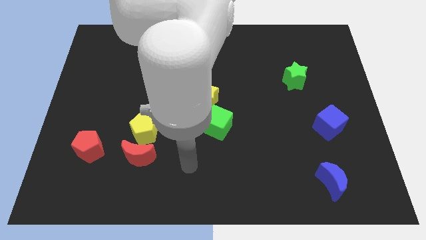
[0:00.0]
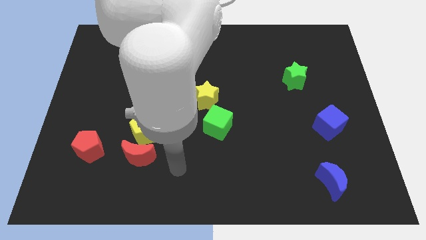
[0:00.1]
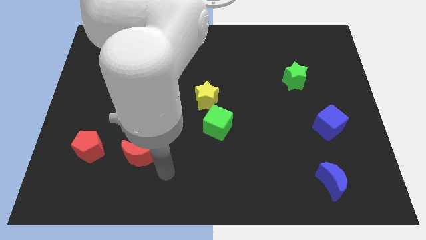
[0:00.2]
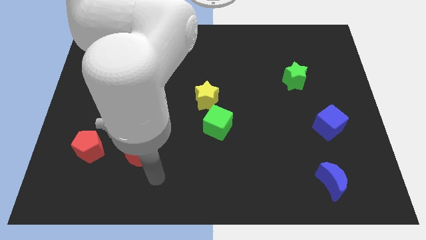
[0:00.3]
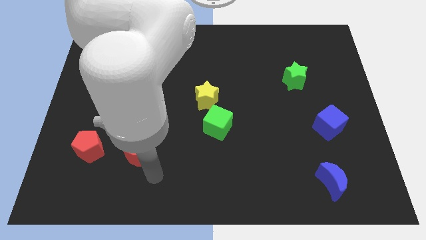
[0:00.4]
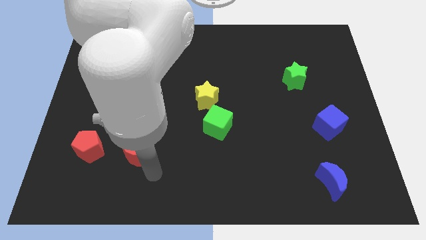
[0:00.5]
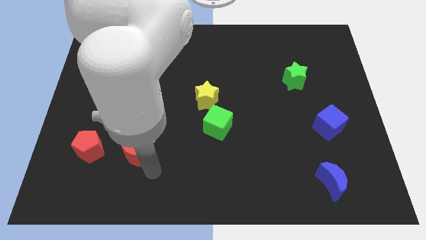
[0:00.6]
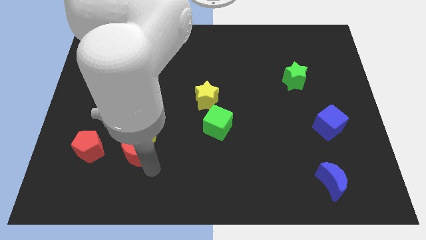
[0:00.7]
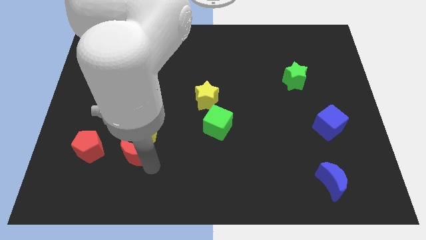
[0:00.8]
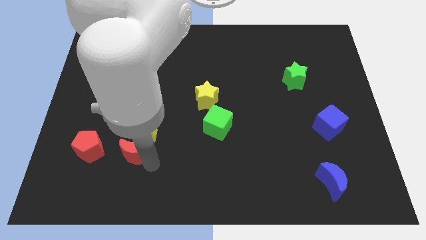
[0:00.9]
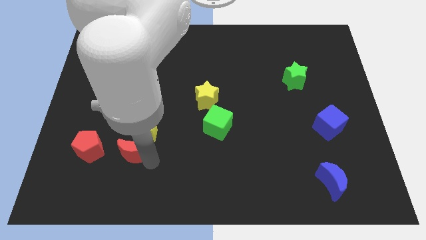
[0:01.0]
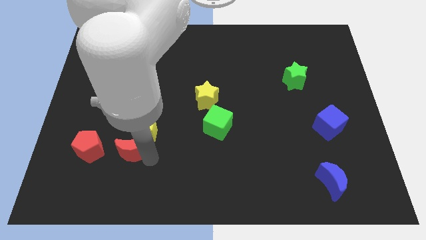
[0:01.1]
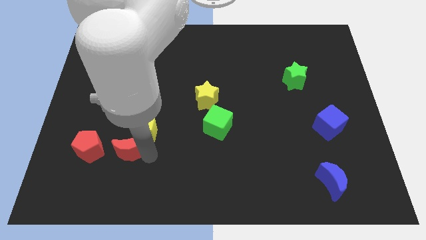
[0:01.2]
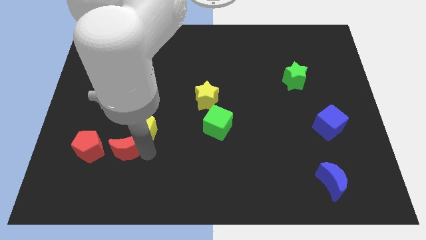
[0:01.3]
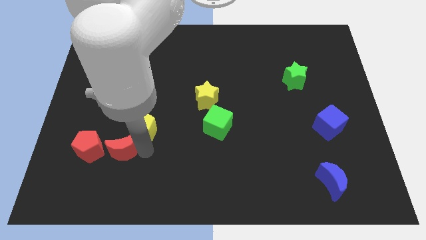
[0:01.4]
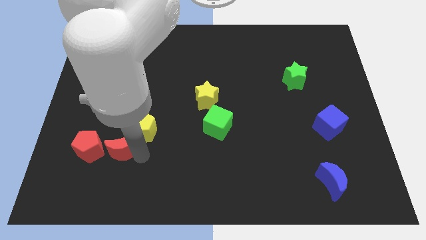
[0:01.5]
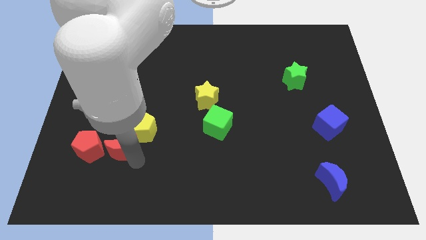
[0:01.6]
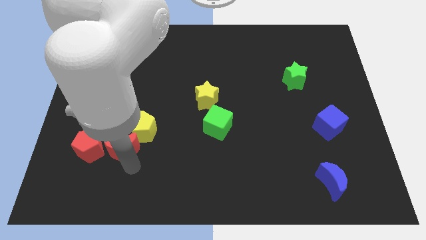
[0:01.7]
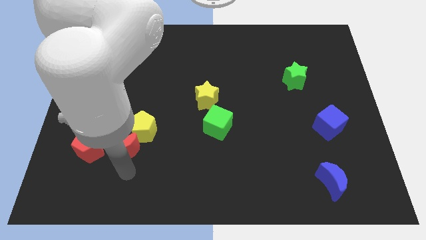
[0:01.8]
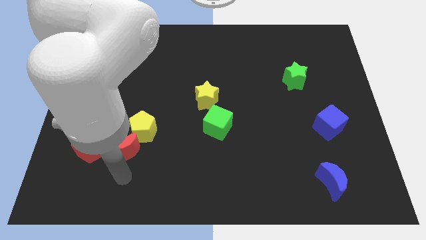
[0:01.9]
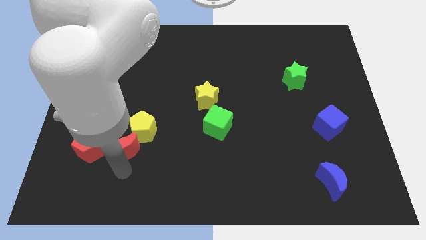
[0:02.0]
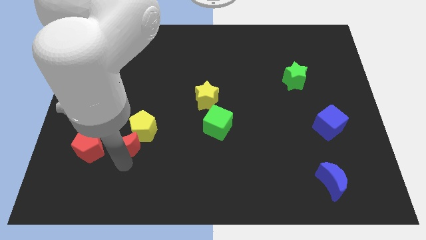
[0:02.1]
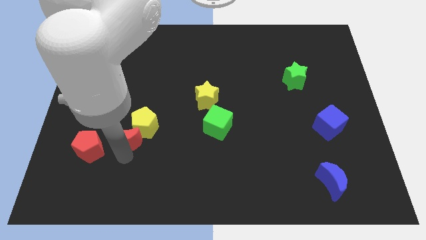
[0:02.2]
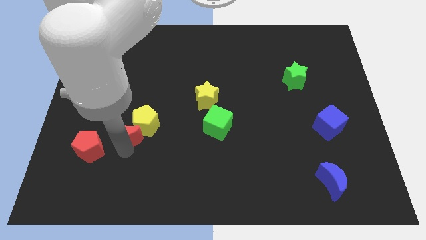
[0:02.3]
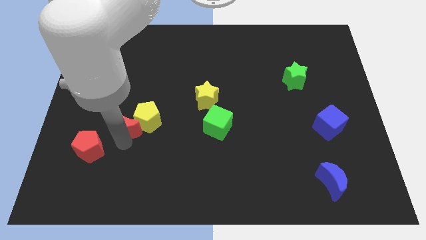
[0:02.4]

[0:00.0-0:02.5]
move the red moon upwards a little

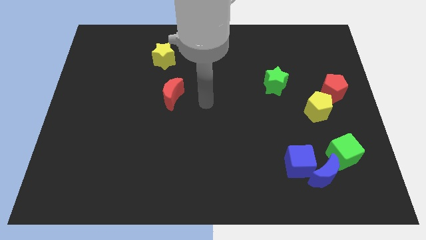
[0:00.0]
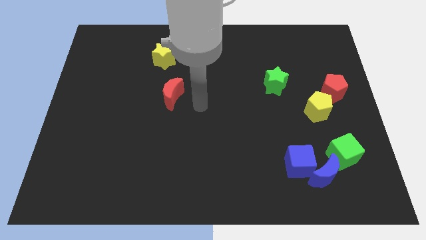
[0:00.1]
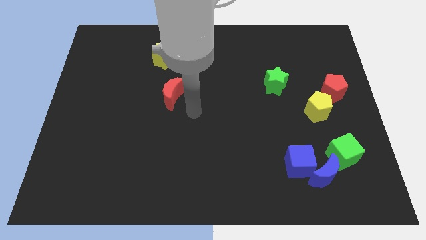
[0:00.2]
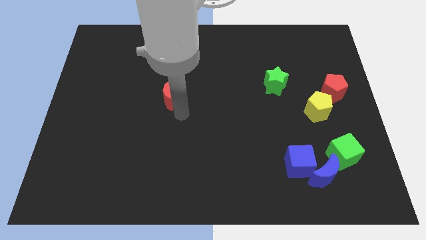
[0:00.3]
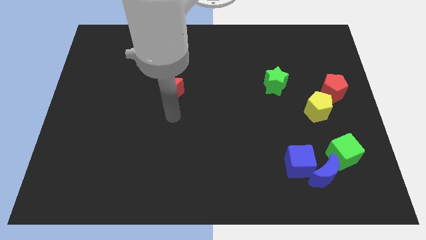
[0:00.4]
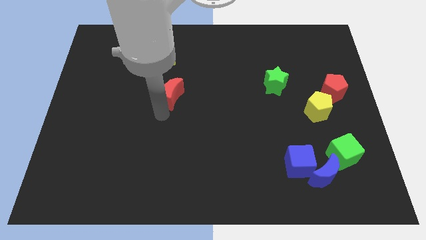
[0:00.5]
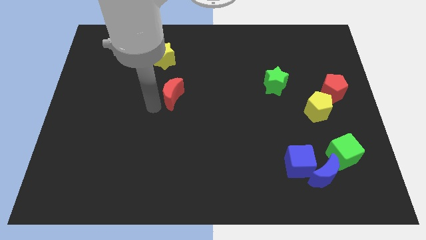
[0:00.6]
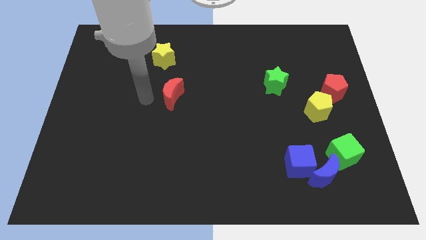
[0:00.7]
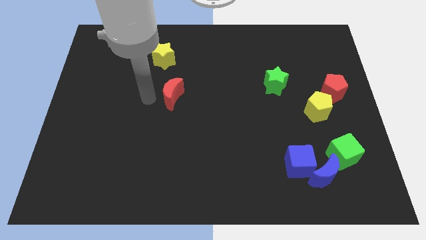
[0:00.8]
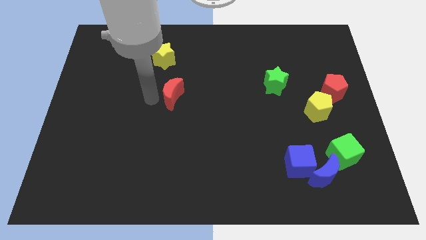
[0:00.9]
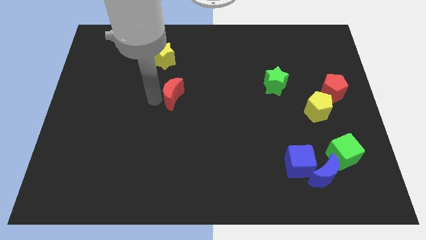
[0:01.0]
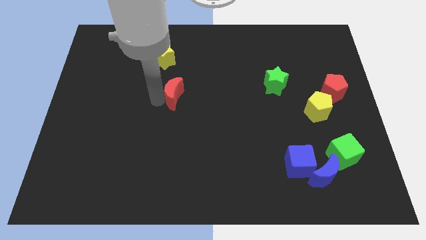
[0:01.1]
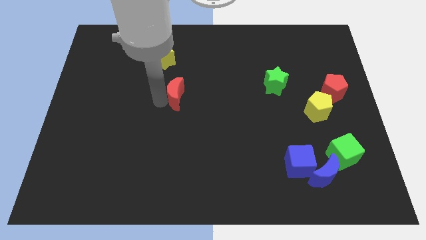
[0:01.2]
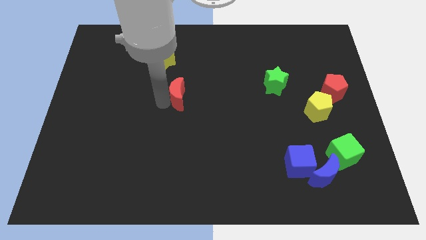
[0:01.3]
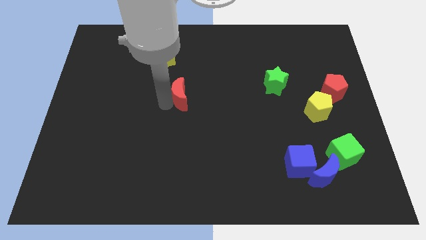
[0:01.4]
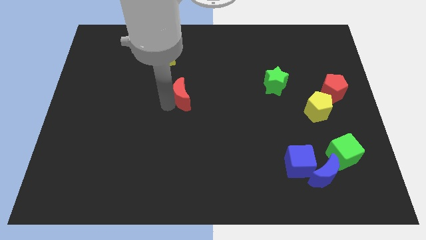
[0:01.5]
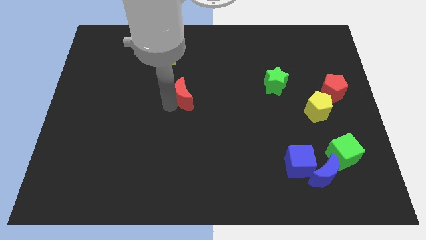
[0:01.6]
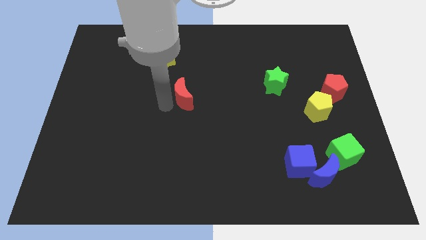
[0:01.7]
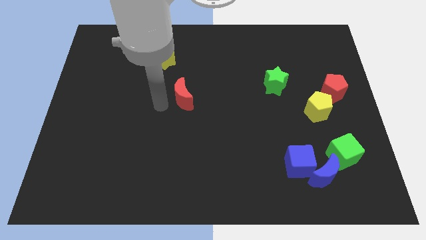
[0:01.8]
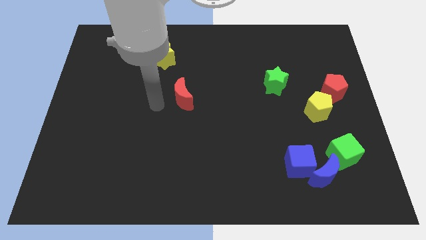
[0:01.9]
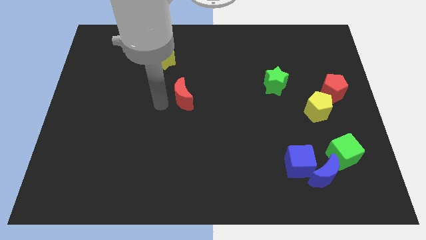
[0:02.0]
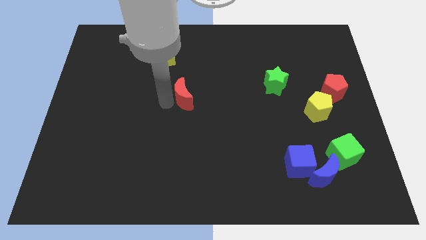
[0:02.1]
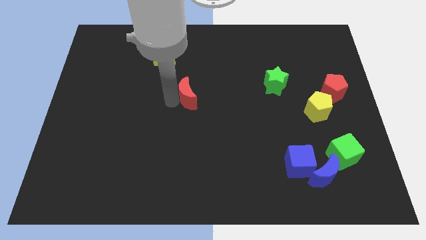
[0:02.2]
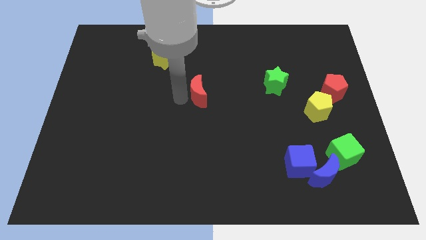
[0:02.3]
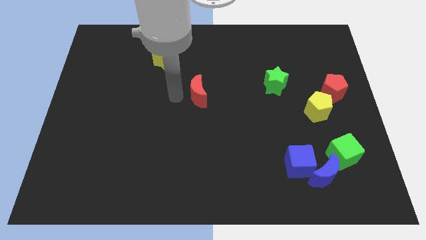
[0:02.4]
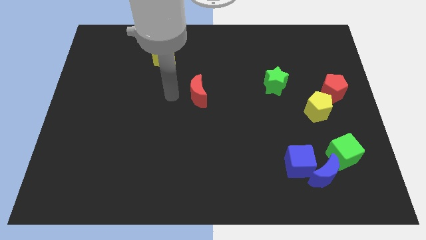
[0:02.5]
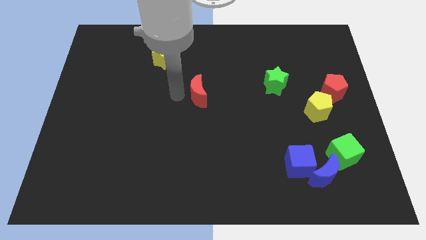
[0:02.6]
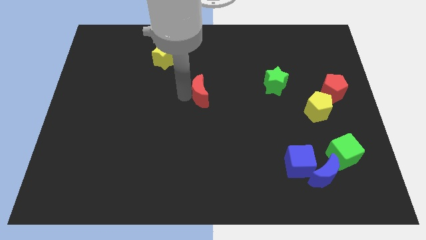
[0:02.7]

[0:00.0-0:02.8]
move the red moon right somewhat

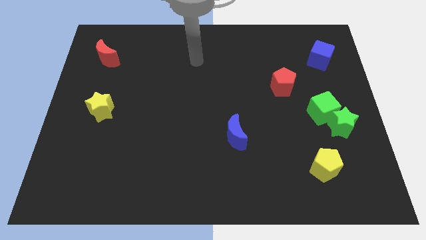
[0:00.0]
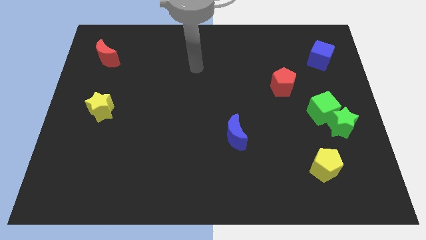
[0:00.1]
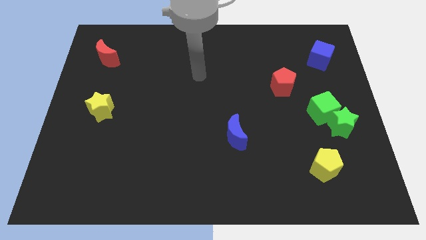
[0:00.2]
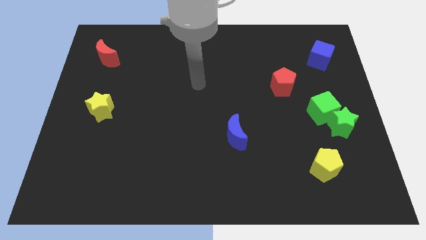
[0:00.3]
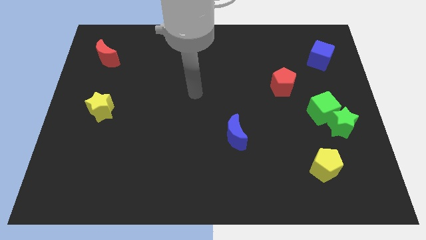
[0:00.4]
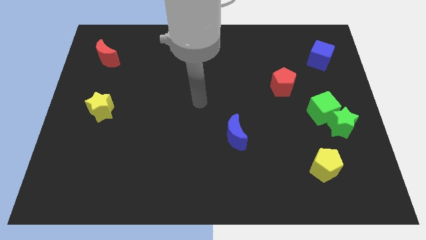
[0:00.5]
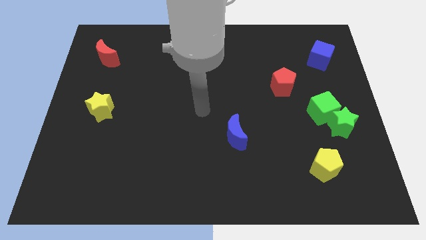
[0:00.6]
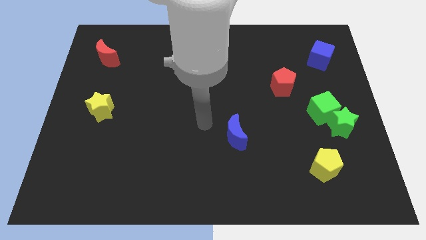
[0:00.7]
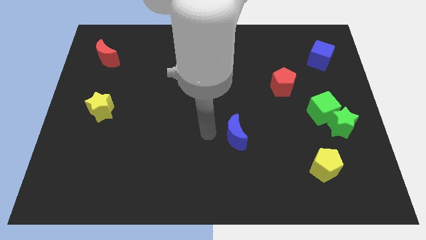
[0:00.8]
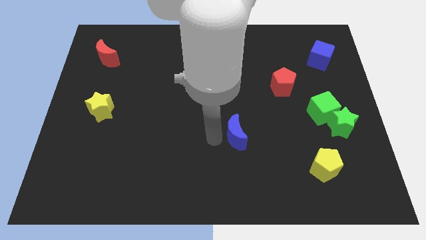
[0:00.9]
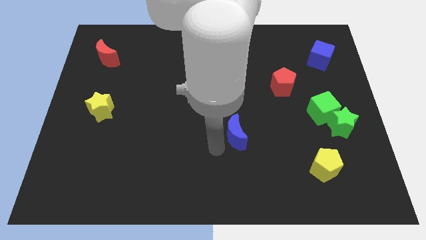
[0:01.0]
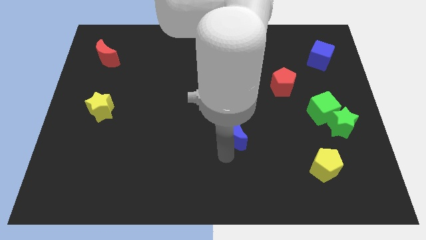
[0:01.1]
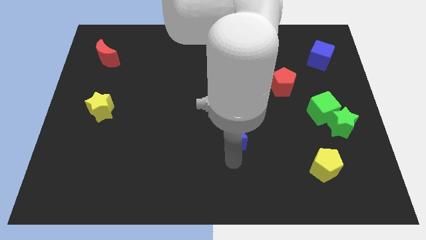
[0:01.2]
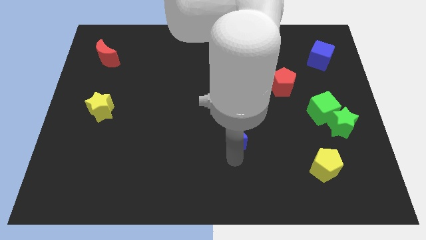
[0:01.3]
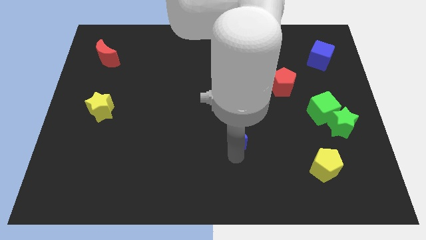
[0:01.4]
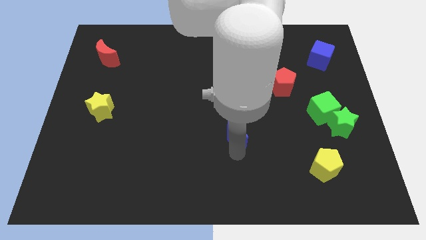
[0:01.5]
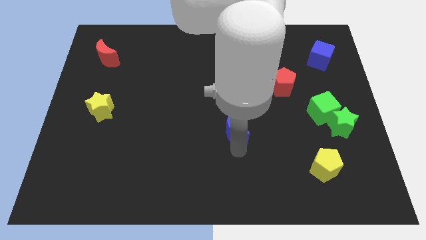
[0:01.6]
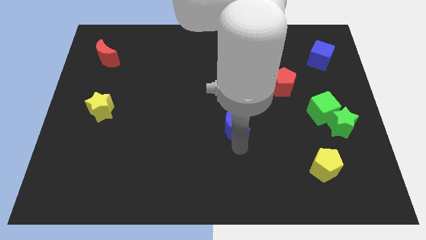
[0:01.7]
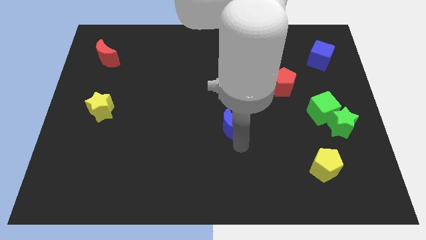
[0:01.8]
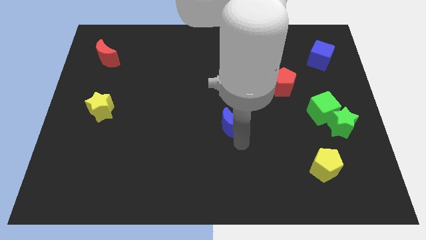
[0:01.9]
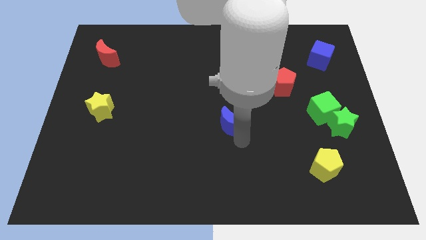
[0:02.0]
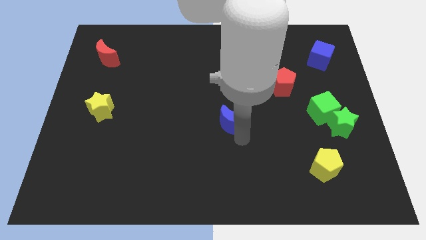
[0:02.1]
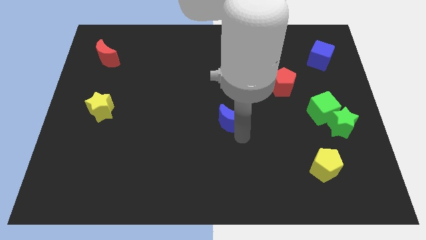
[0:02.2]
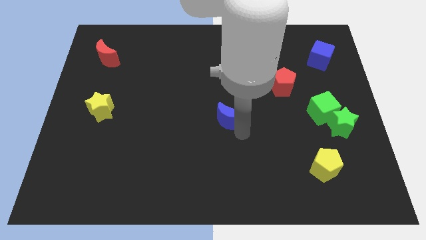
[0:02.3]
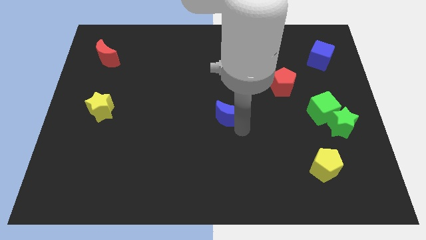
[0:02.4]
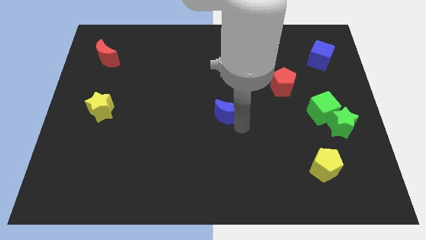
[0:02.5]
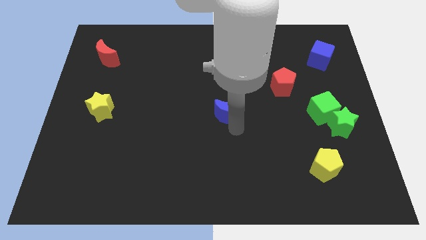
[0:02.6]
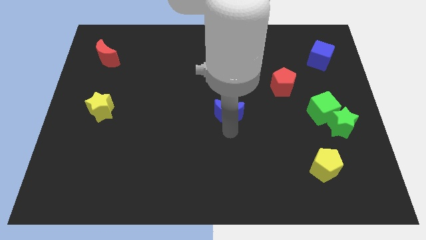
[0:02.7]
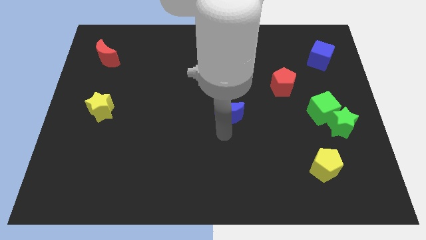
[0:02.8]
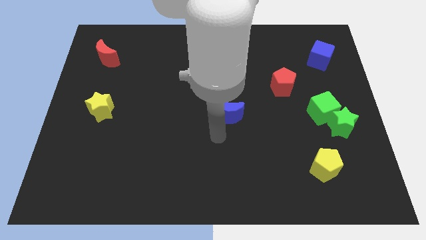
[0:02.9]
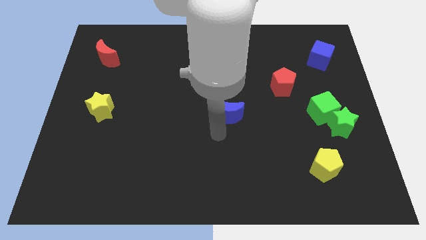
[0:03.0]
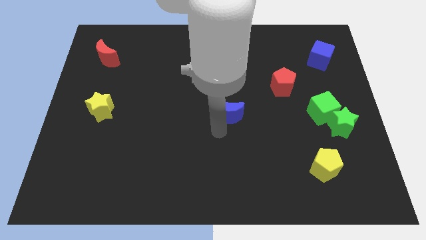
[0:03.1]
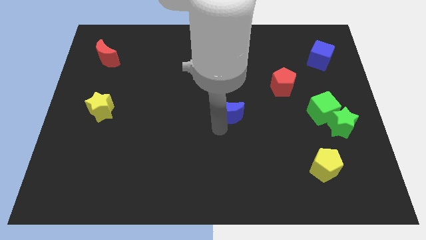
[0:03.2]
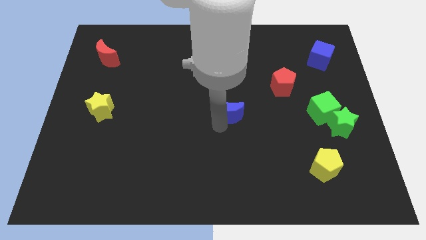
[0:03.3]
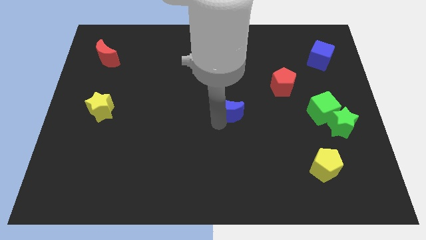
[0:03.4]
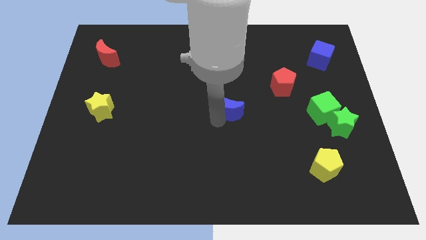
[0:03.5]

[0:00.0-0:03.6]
push the blue moon a little bit upwards
